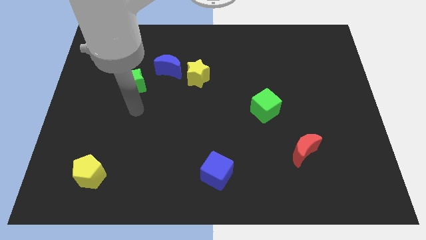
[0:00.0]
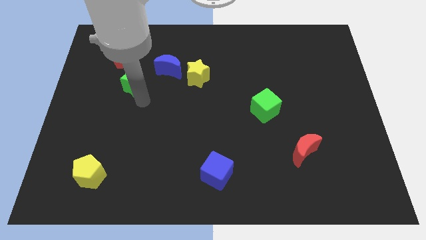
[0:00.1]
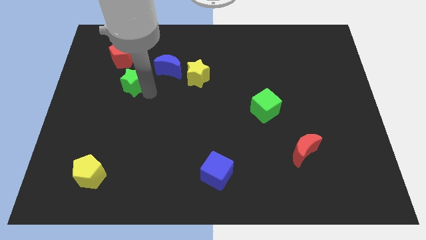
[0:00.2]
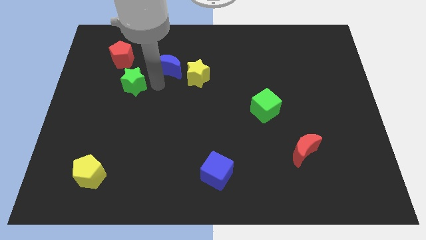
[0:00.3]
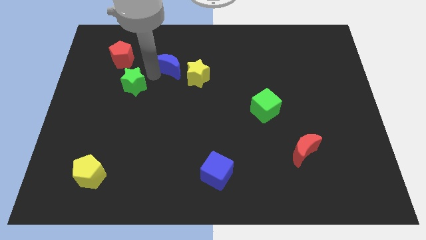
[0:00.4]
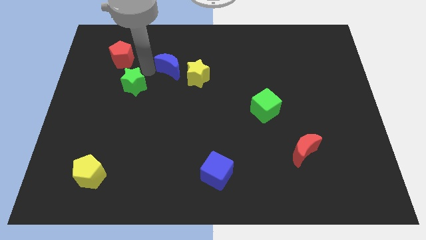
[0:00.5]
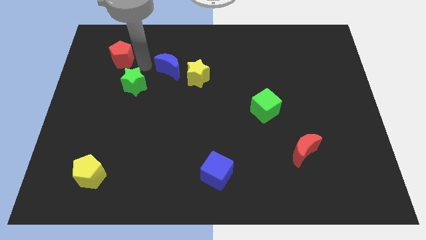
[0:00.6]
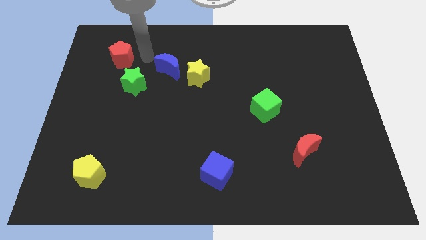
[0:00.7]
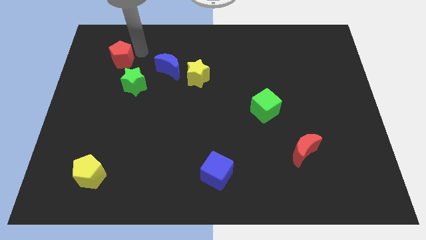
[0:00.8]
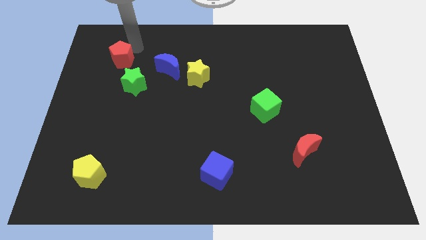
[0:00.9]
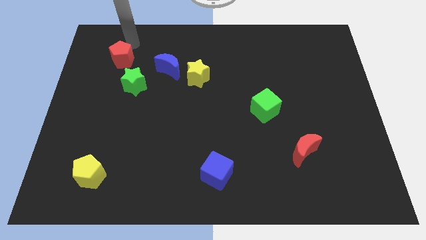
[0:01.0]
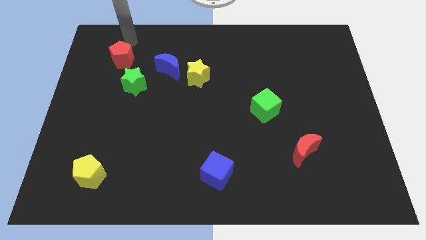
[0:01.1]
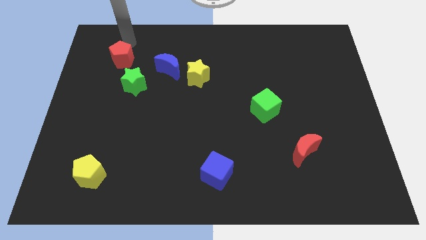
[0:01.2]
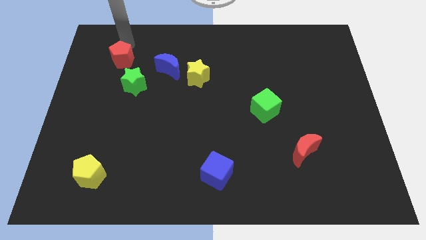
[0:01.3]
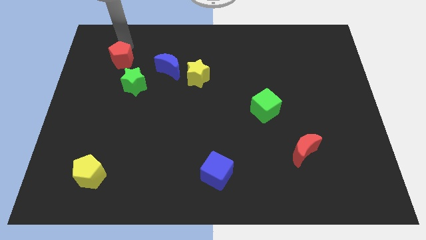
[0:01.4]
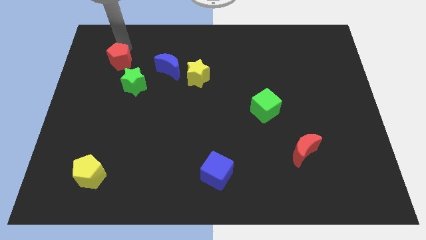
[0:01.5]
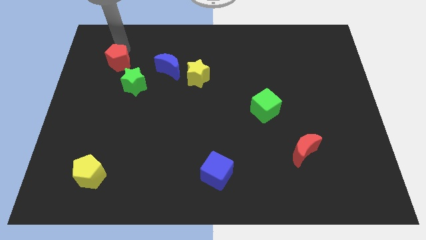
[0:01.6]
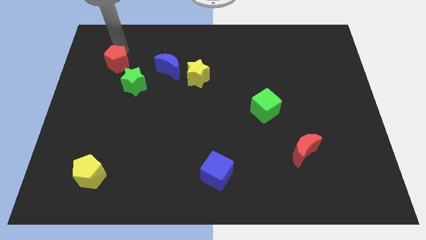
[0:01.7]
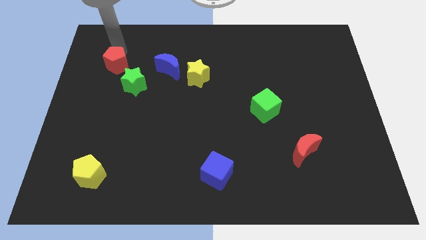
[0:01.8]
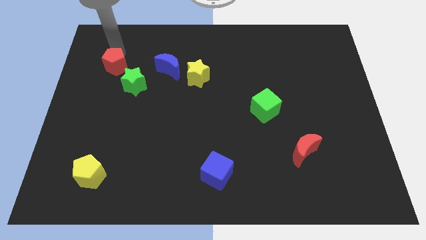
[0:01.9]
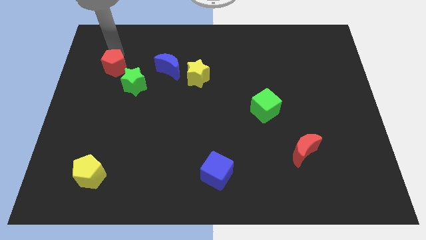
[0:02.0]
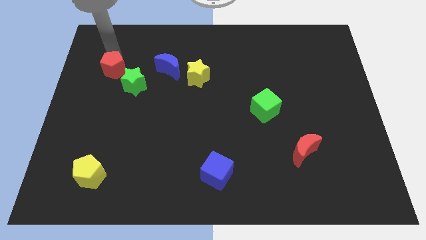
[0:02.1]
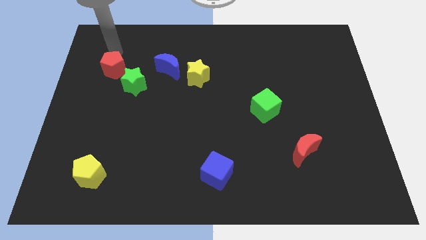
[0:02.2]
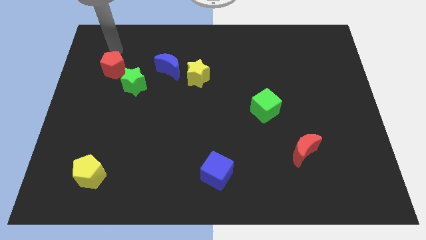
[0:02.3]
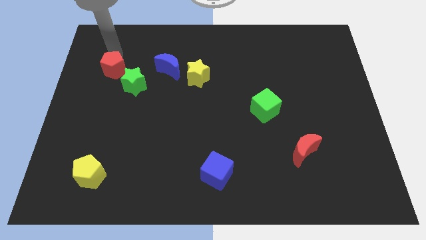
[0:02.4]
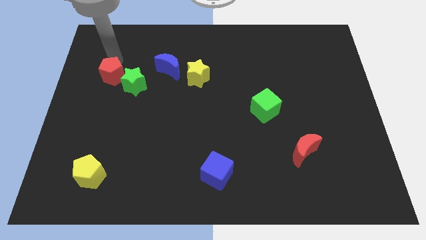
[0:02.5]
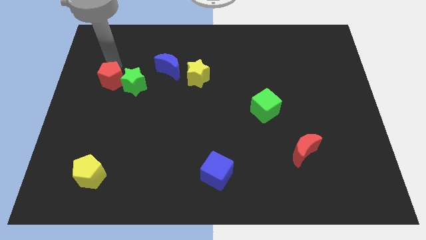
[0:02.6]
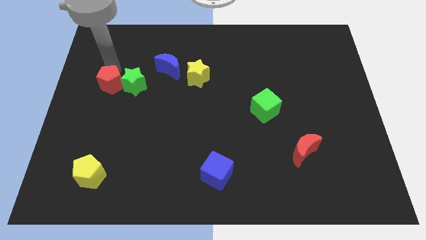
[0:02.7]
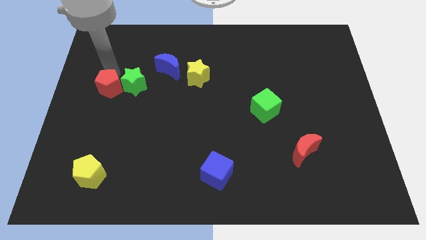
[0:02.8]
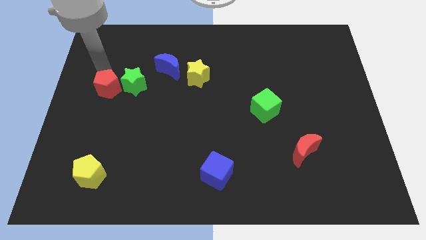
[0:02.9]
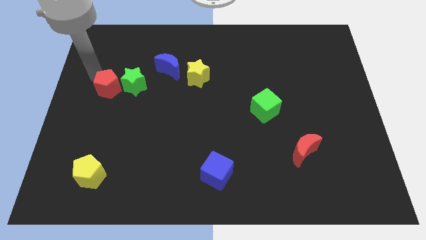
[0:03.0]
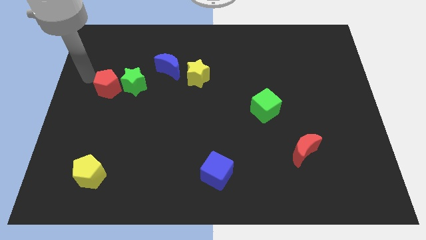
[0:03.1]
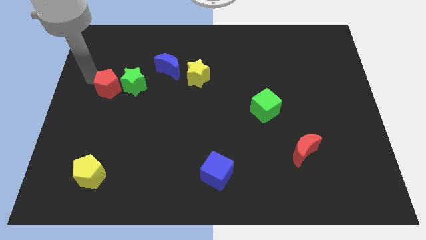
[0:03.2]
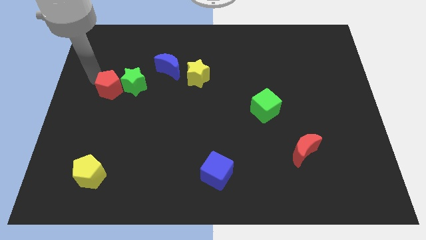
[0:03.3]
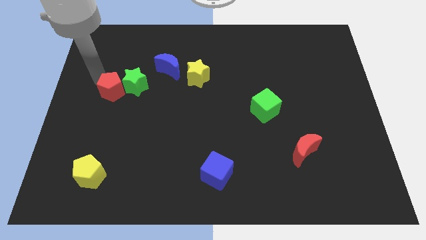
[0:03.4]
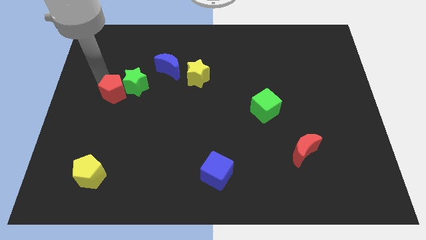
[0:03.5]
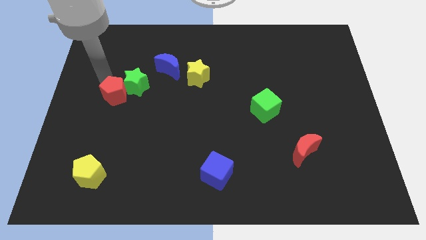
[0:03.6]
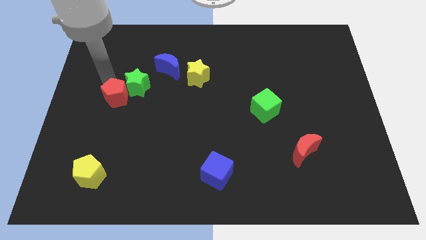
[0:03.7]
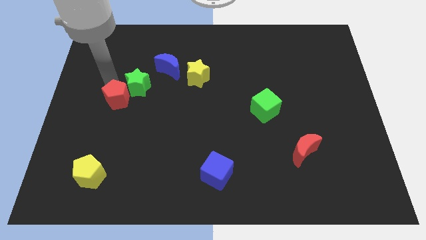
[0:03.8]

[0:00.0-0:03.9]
slide the red pentagon somewhat downwards and then to the right

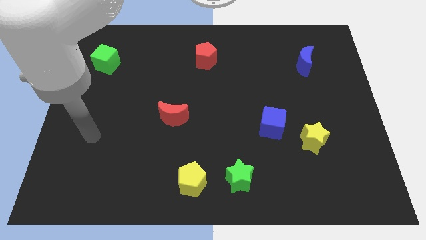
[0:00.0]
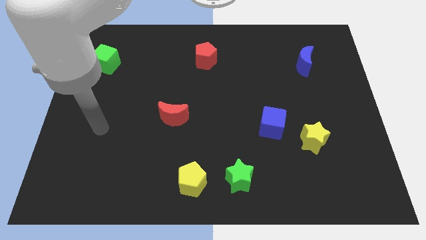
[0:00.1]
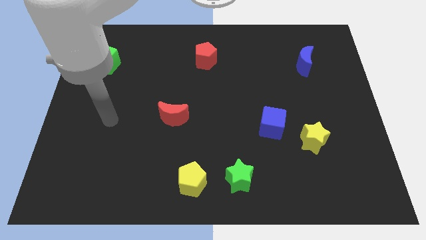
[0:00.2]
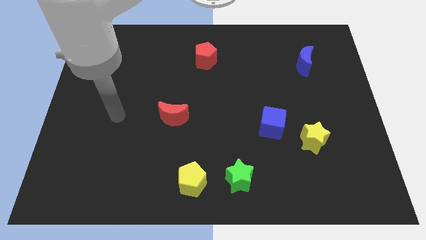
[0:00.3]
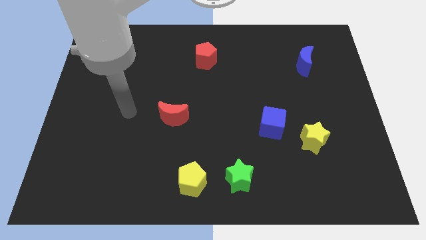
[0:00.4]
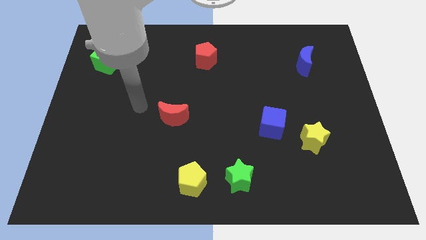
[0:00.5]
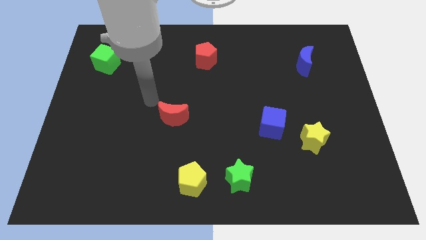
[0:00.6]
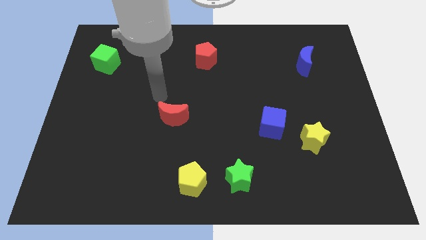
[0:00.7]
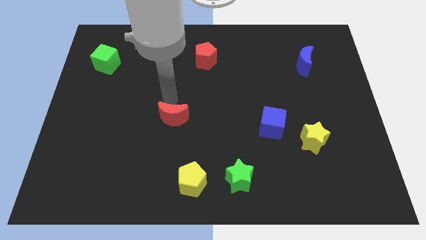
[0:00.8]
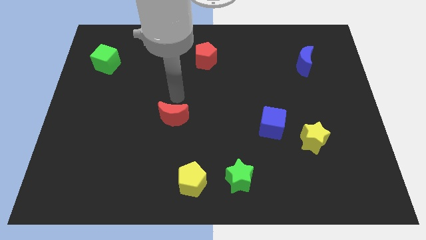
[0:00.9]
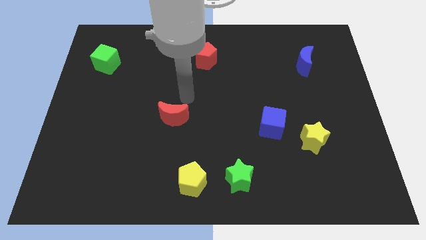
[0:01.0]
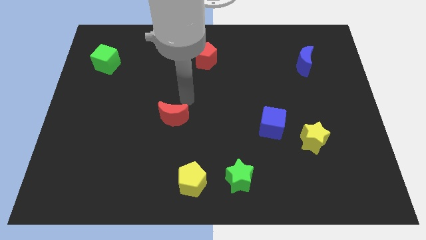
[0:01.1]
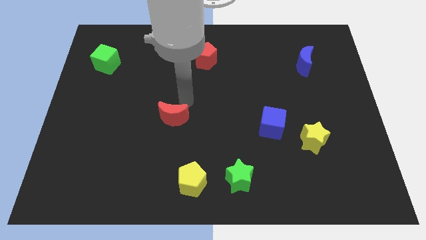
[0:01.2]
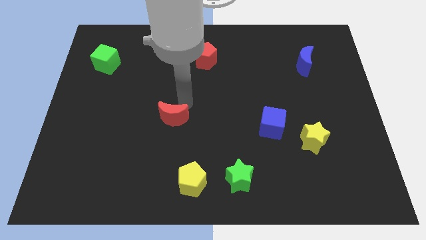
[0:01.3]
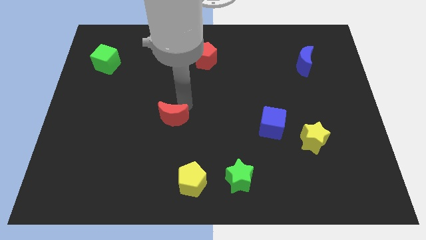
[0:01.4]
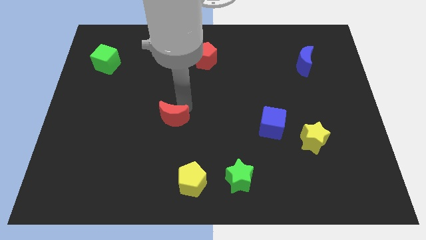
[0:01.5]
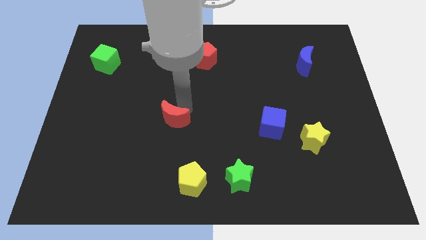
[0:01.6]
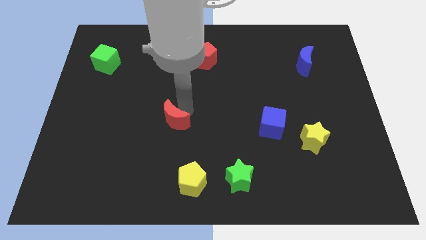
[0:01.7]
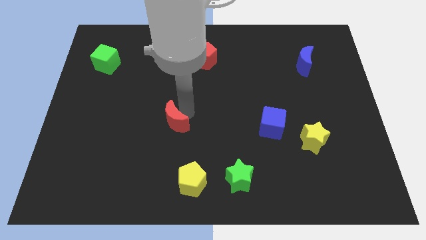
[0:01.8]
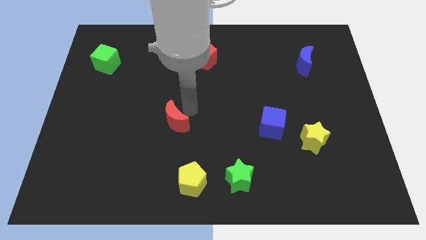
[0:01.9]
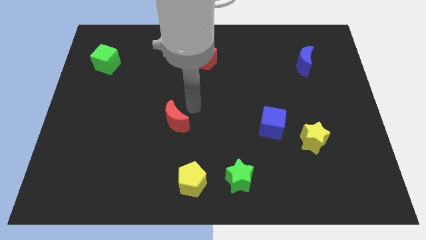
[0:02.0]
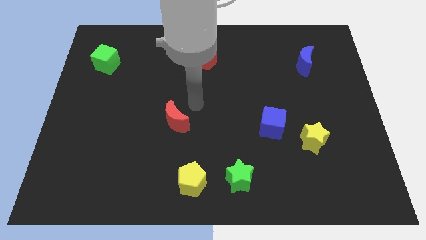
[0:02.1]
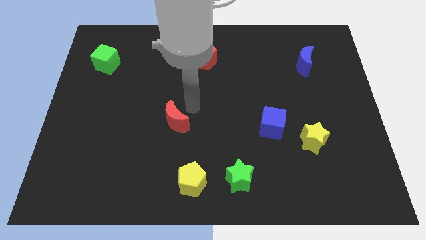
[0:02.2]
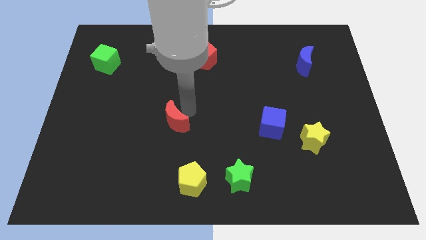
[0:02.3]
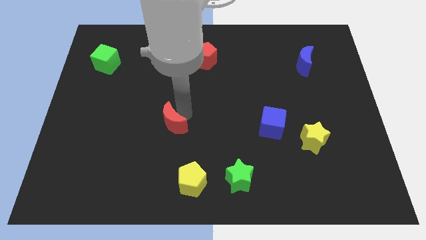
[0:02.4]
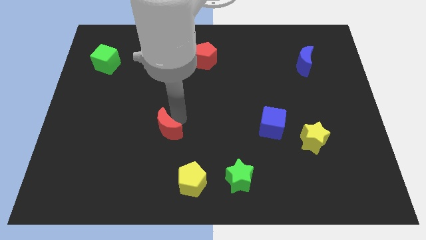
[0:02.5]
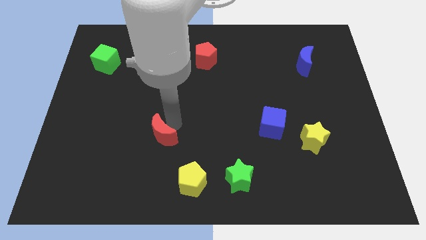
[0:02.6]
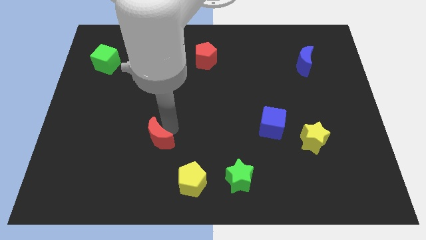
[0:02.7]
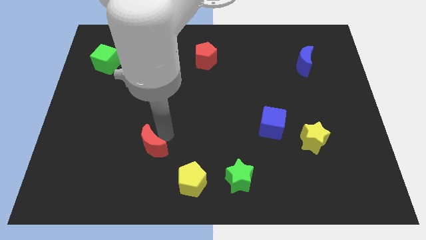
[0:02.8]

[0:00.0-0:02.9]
slightly move the red moon diagonally down and left

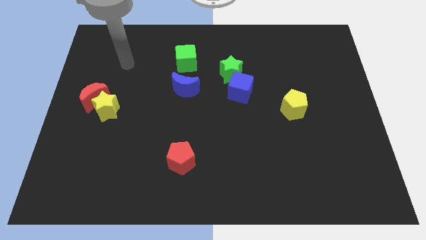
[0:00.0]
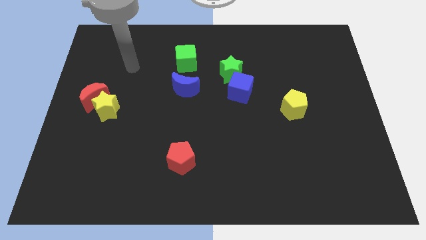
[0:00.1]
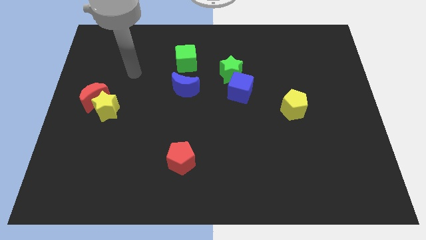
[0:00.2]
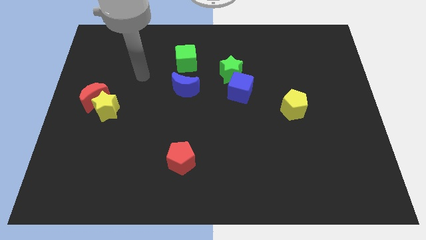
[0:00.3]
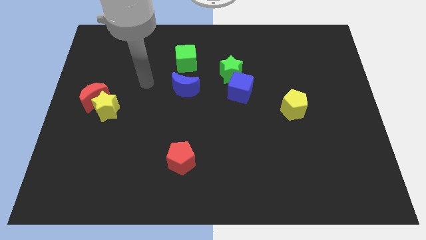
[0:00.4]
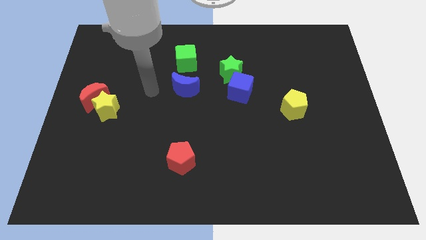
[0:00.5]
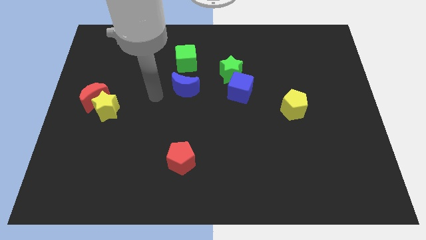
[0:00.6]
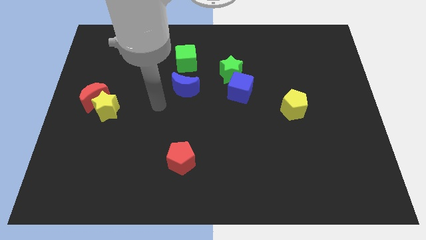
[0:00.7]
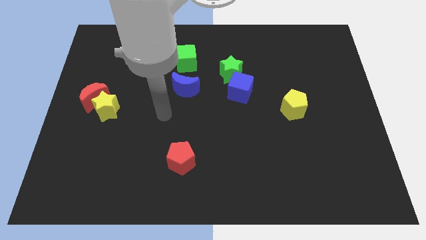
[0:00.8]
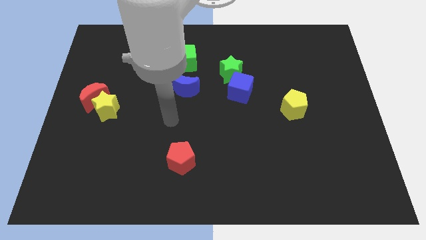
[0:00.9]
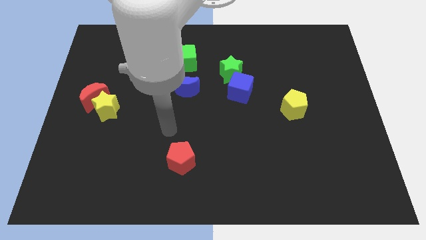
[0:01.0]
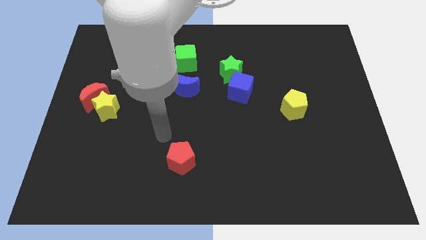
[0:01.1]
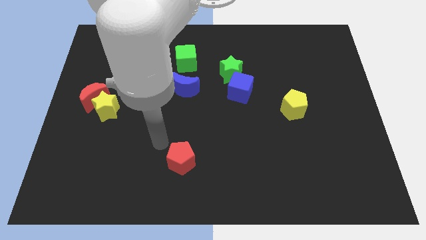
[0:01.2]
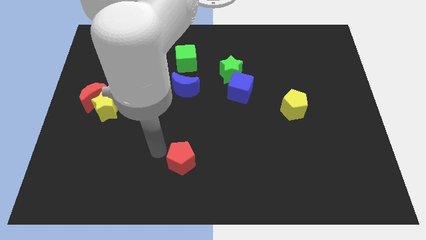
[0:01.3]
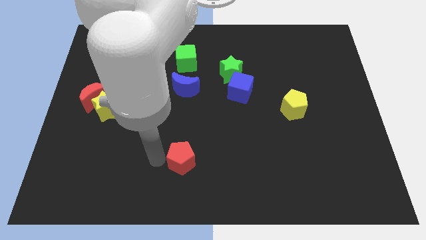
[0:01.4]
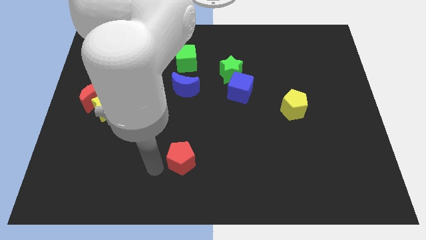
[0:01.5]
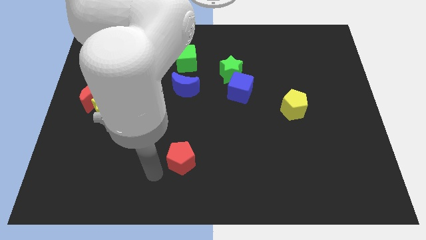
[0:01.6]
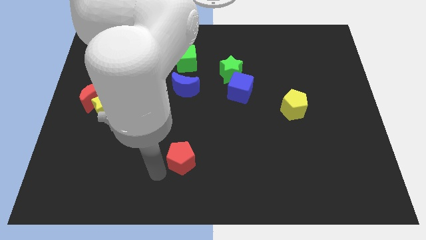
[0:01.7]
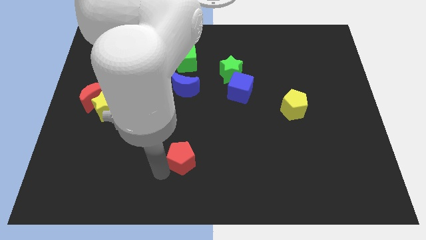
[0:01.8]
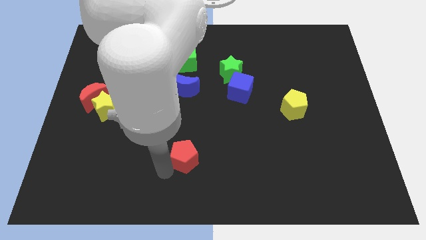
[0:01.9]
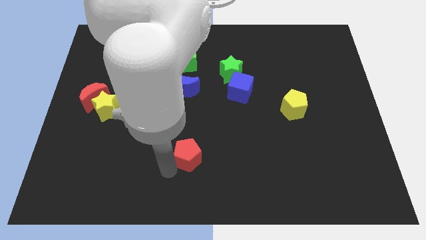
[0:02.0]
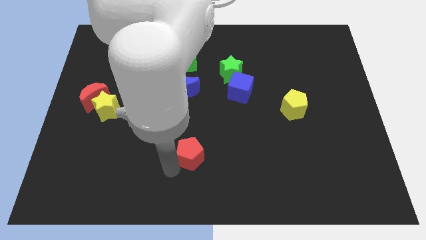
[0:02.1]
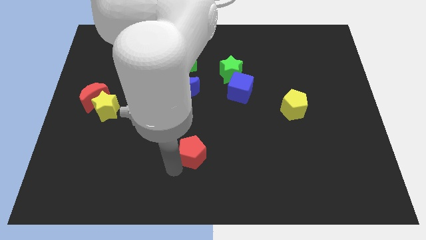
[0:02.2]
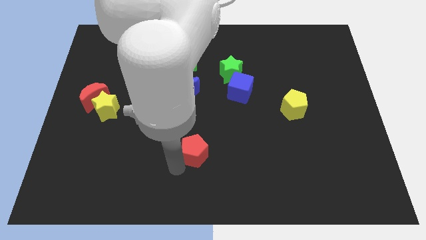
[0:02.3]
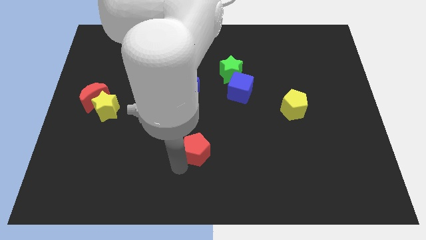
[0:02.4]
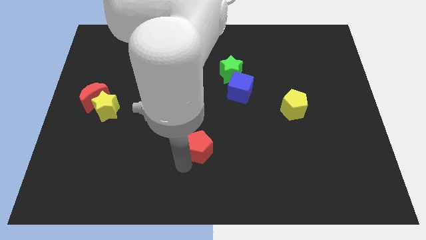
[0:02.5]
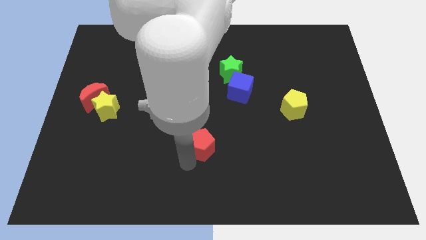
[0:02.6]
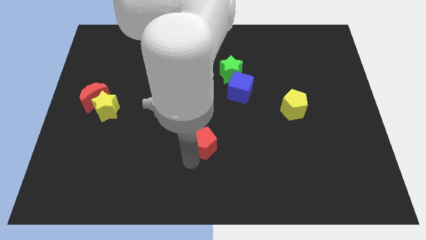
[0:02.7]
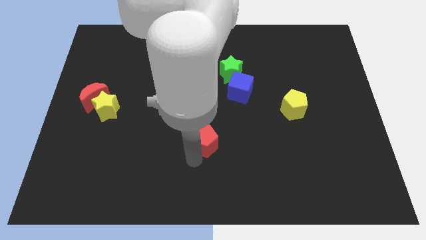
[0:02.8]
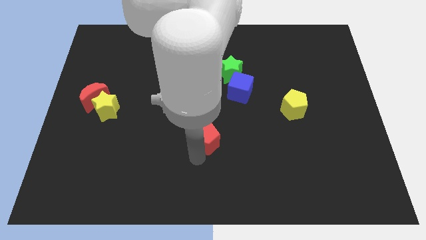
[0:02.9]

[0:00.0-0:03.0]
slightly slide the red pentagon up and then to the right
